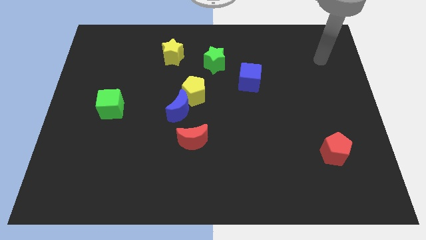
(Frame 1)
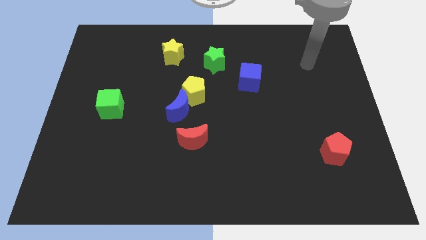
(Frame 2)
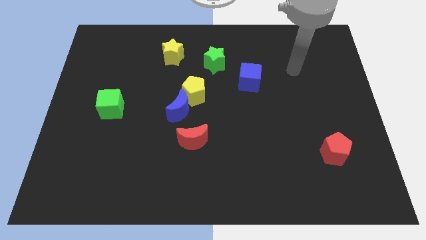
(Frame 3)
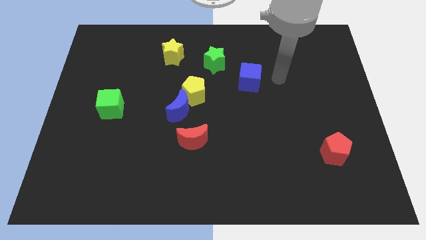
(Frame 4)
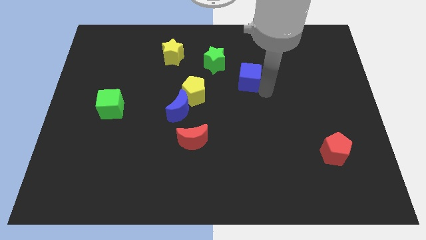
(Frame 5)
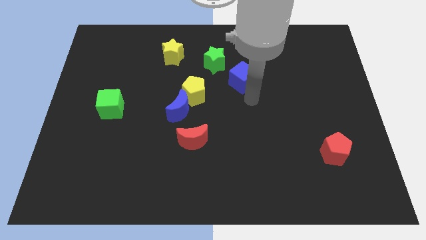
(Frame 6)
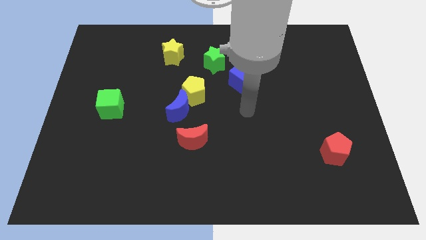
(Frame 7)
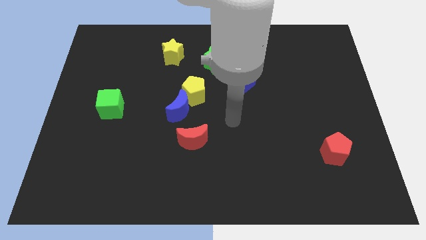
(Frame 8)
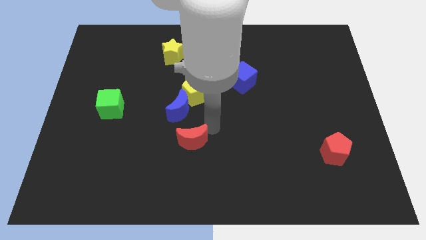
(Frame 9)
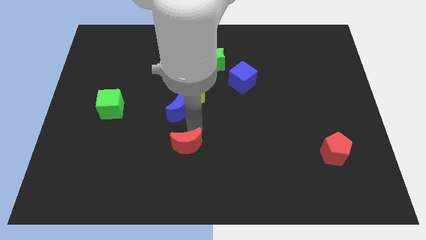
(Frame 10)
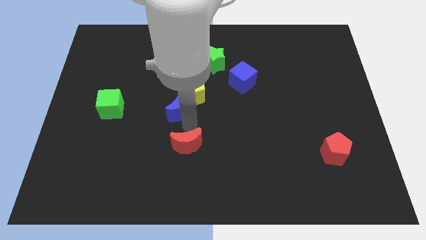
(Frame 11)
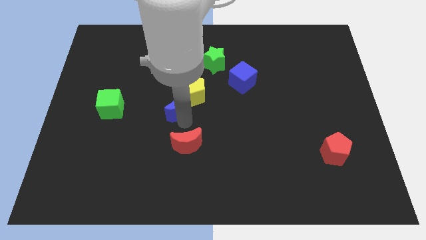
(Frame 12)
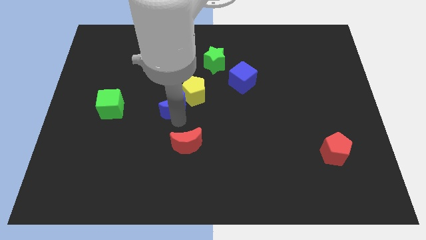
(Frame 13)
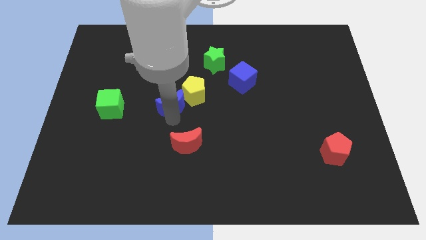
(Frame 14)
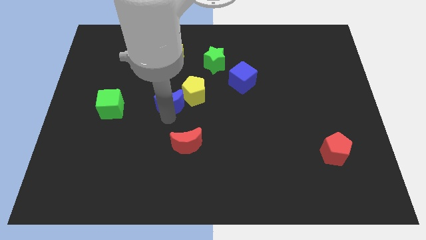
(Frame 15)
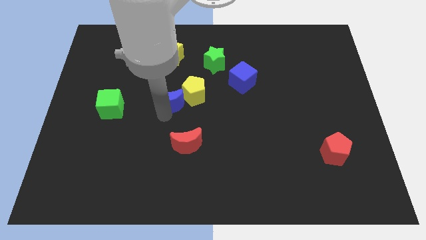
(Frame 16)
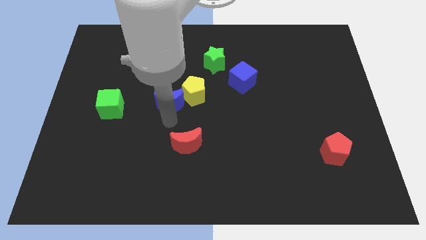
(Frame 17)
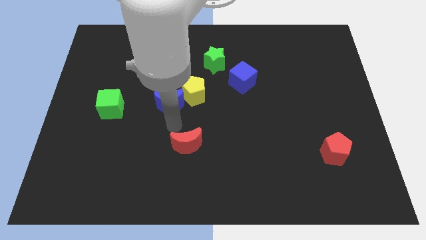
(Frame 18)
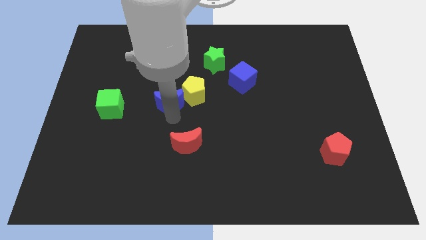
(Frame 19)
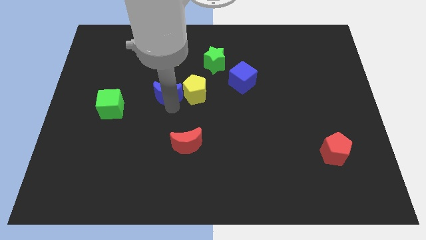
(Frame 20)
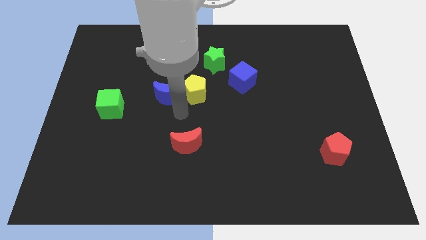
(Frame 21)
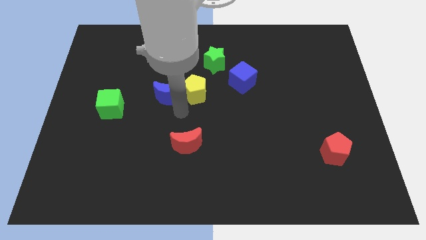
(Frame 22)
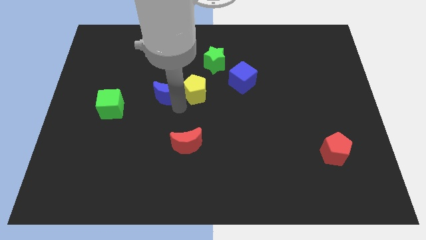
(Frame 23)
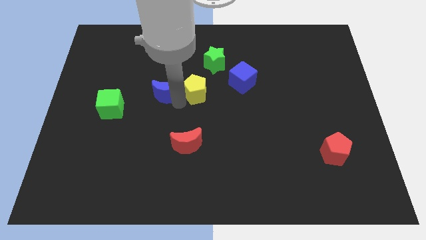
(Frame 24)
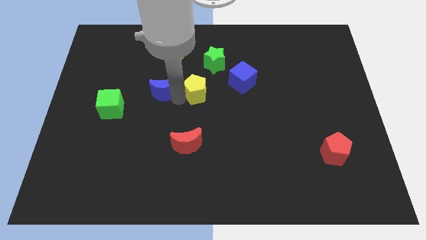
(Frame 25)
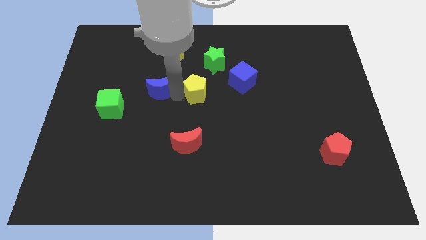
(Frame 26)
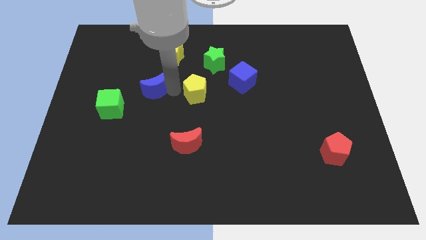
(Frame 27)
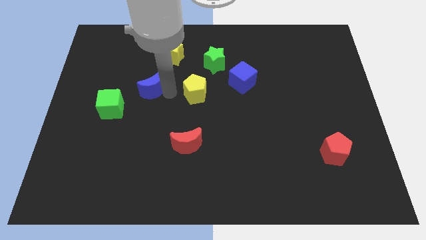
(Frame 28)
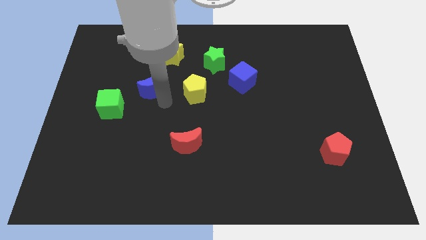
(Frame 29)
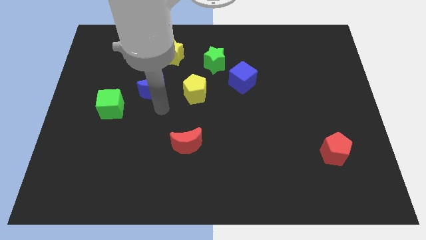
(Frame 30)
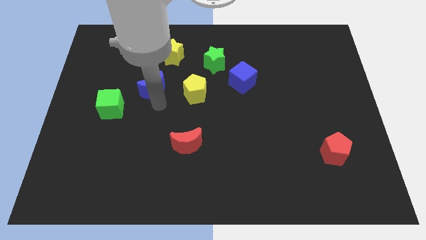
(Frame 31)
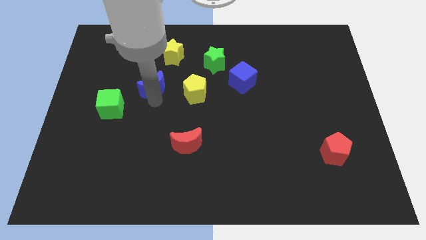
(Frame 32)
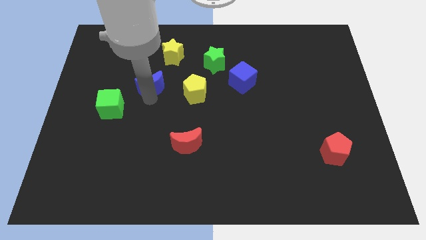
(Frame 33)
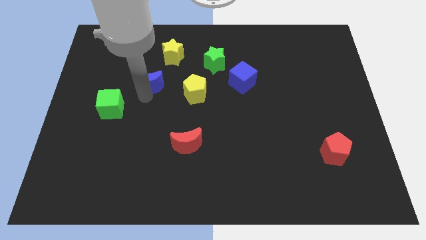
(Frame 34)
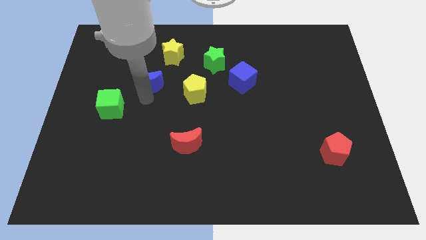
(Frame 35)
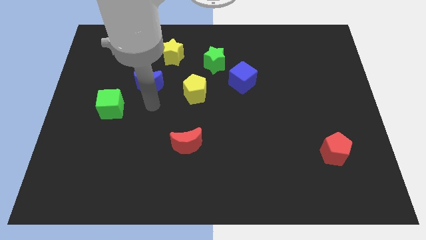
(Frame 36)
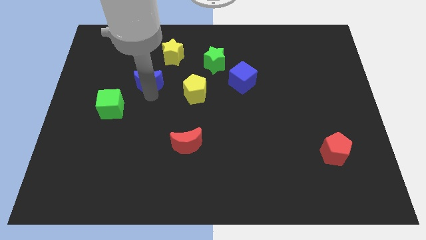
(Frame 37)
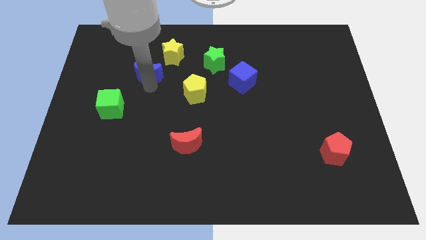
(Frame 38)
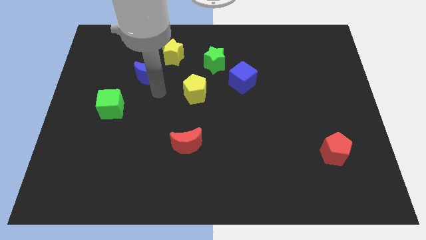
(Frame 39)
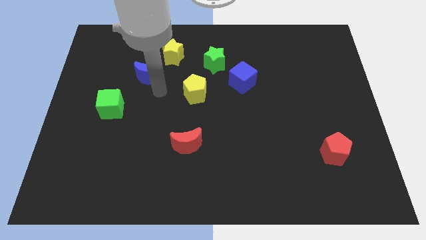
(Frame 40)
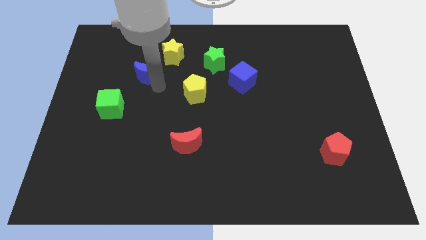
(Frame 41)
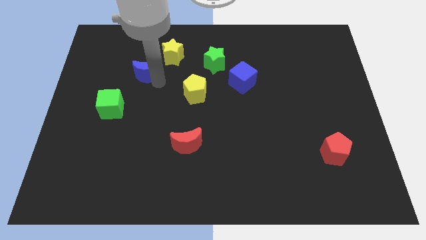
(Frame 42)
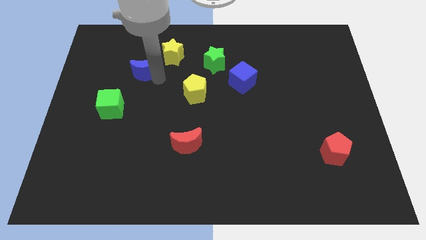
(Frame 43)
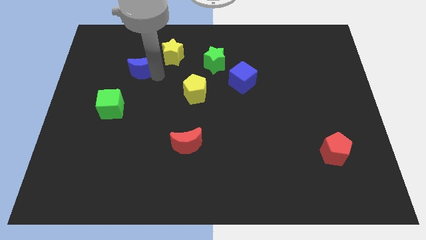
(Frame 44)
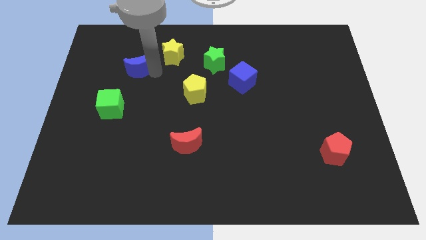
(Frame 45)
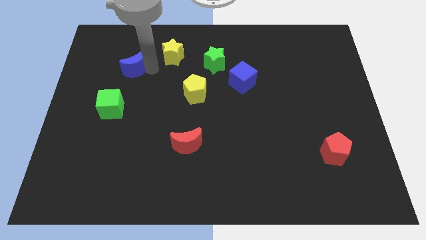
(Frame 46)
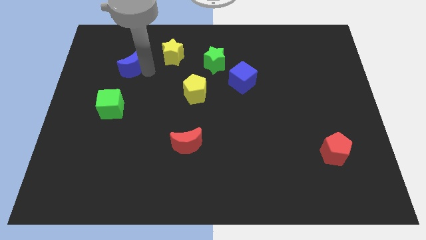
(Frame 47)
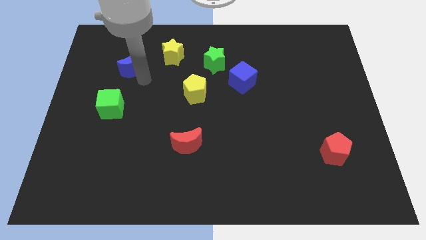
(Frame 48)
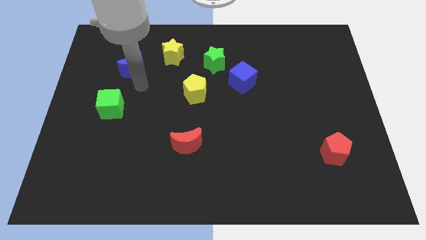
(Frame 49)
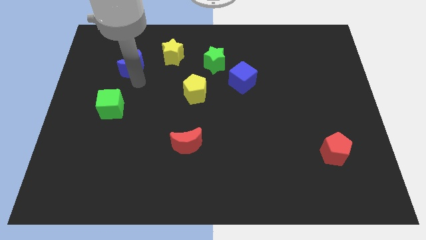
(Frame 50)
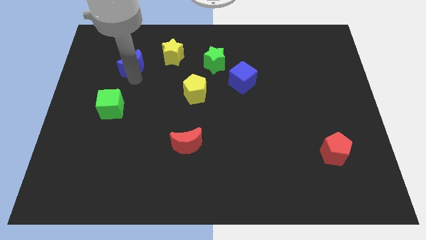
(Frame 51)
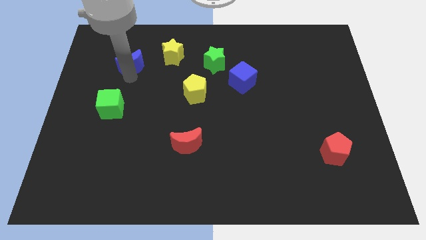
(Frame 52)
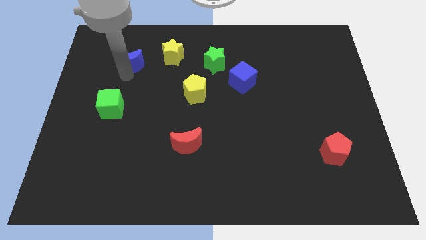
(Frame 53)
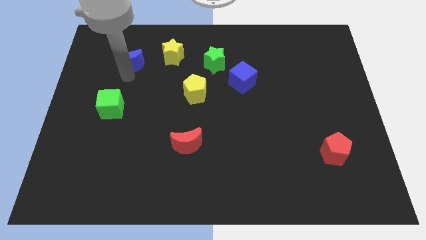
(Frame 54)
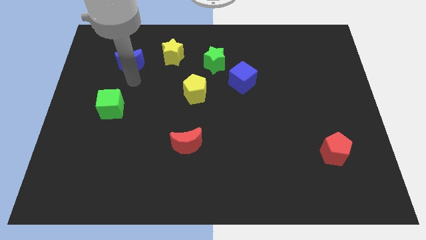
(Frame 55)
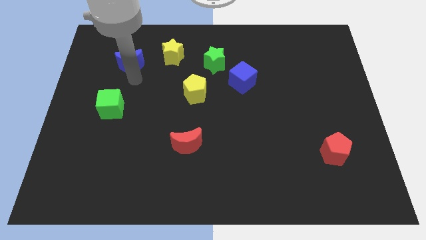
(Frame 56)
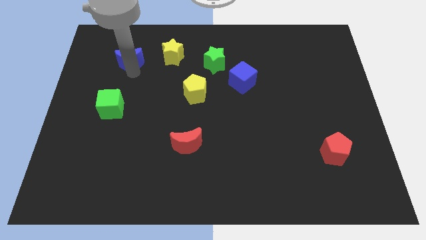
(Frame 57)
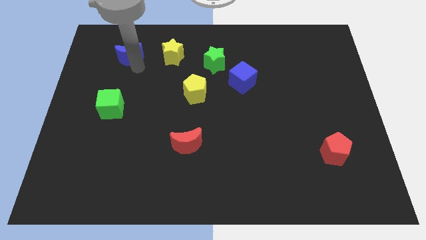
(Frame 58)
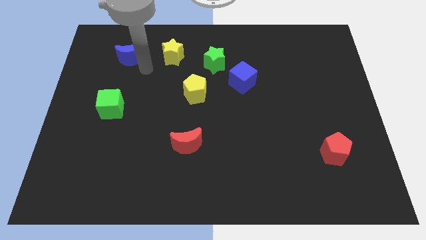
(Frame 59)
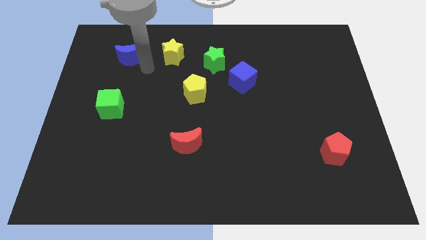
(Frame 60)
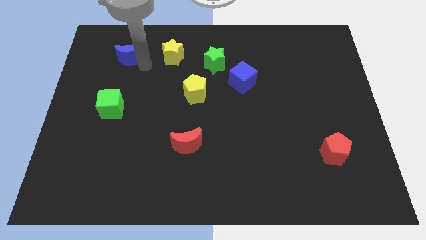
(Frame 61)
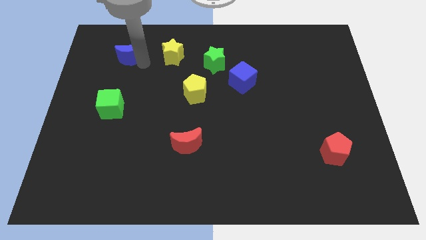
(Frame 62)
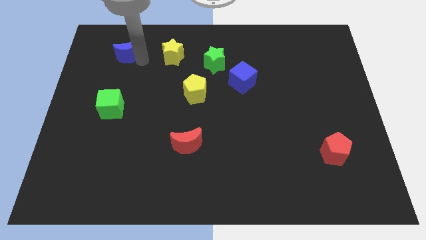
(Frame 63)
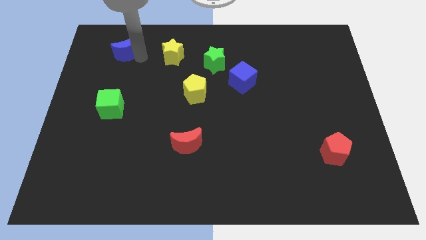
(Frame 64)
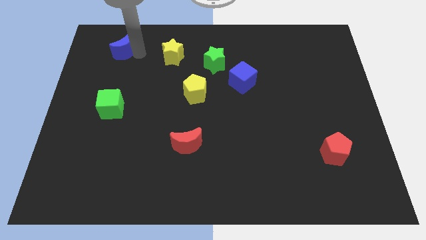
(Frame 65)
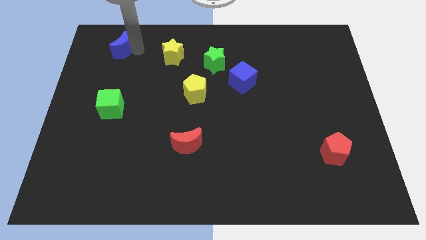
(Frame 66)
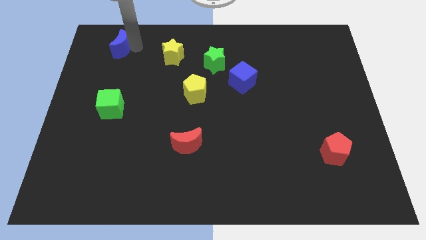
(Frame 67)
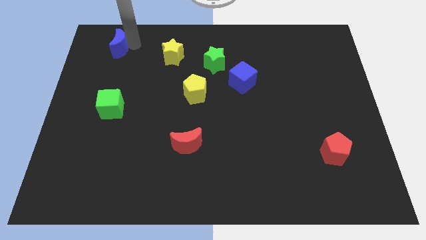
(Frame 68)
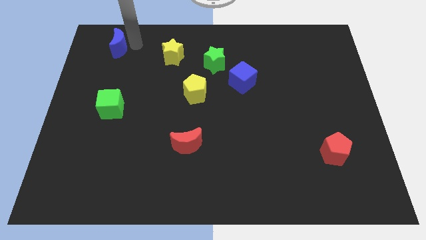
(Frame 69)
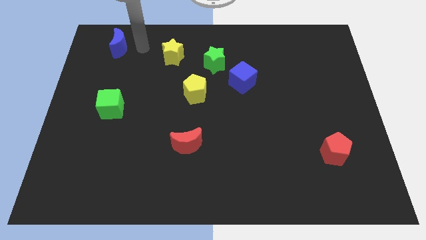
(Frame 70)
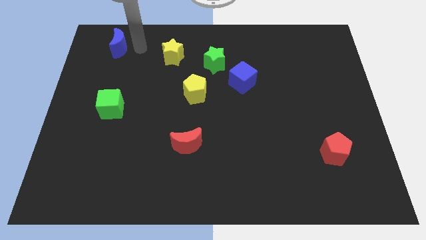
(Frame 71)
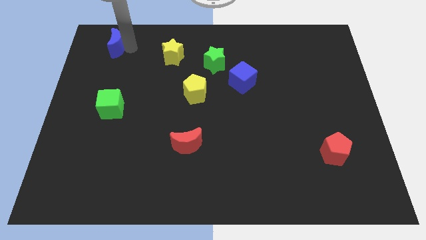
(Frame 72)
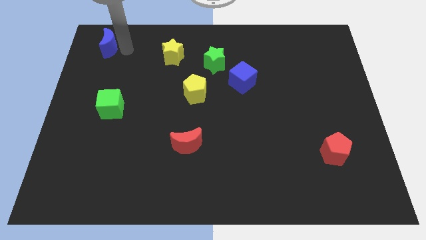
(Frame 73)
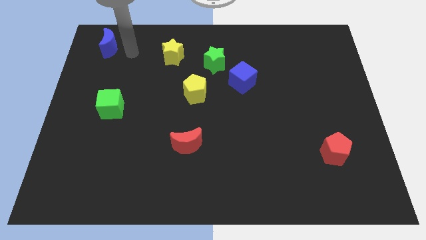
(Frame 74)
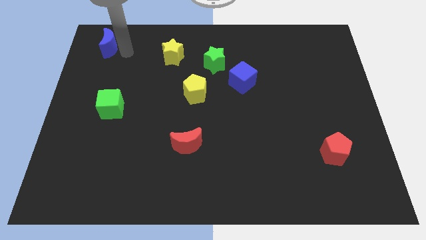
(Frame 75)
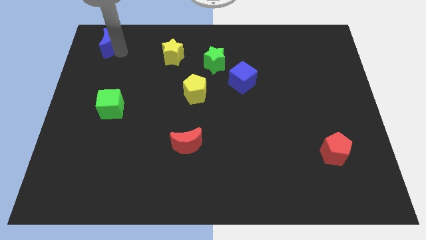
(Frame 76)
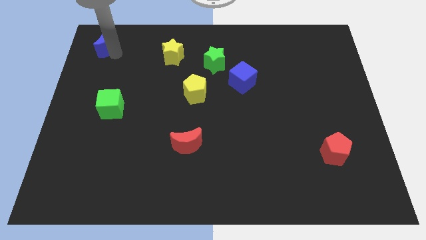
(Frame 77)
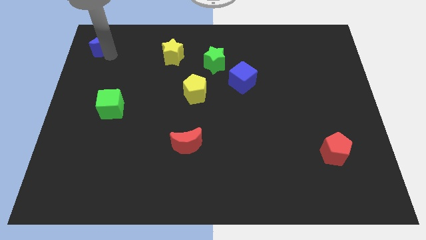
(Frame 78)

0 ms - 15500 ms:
move the blue moon to the upper left corner
